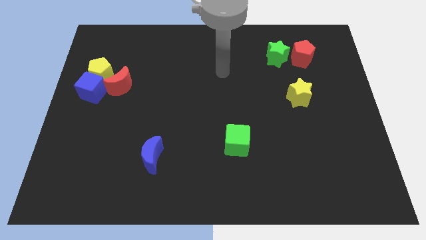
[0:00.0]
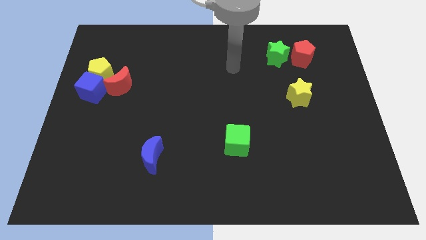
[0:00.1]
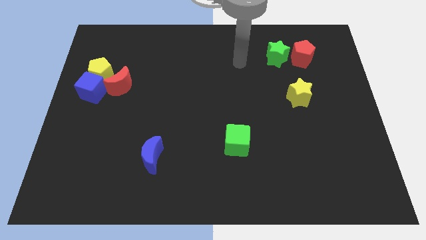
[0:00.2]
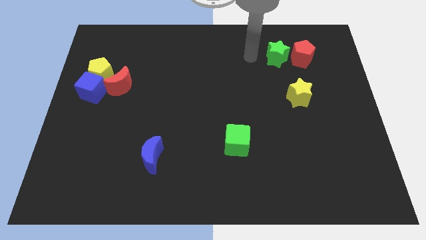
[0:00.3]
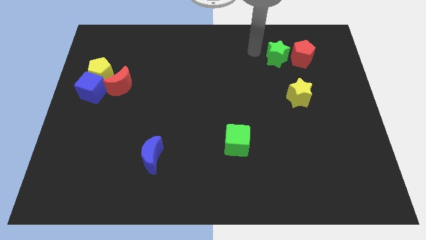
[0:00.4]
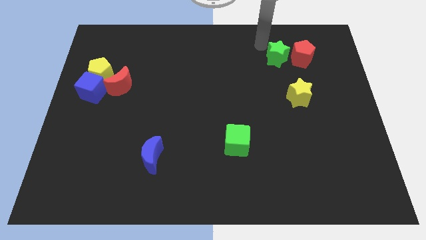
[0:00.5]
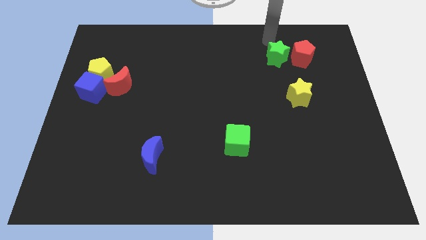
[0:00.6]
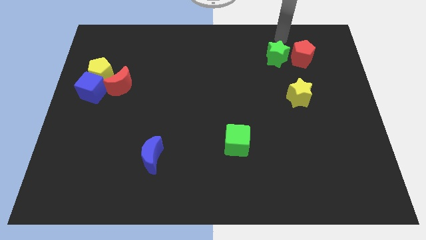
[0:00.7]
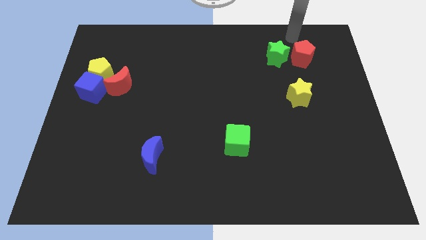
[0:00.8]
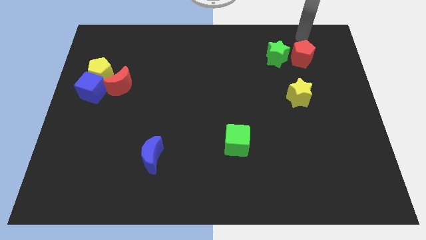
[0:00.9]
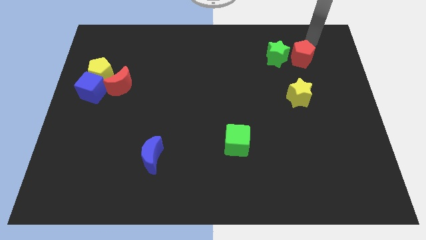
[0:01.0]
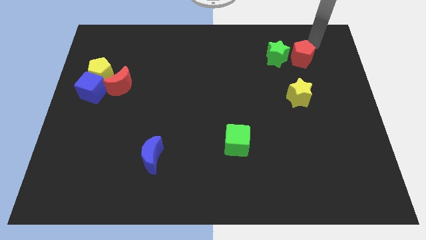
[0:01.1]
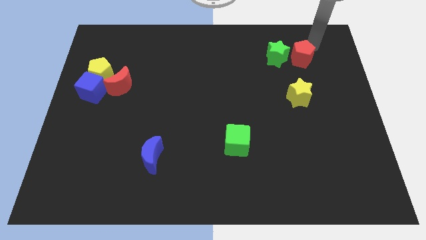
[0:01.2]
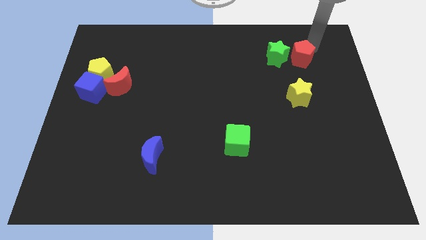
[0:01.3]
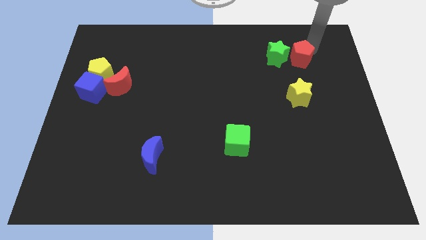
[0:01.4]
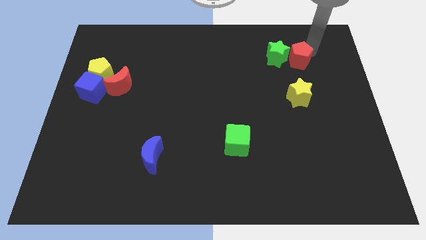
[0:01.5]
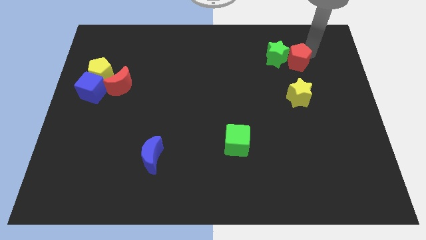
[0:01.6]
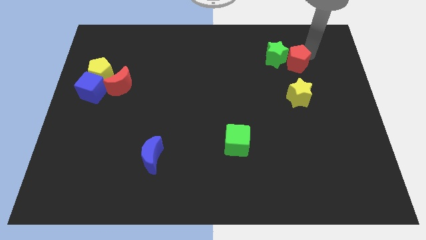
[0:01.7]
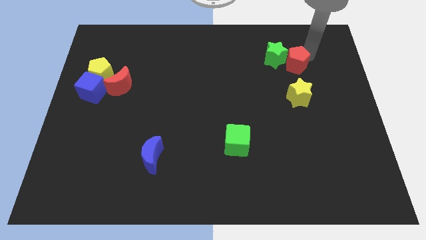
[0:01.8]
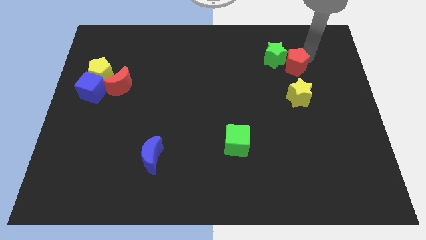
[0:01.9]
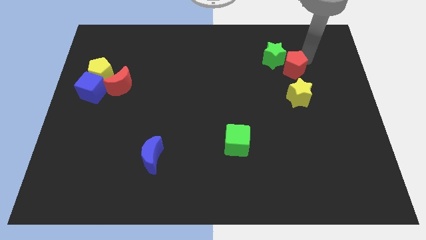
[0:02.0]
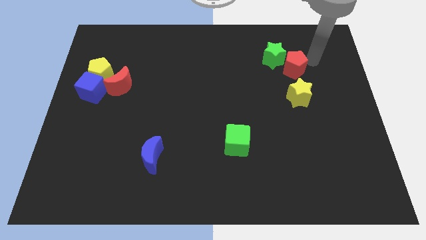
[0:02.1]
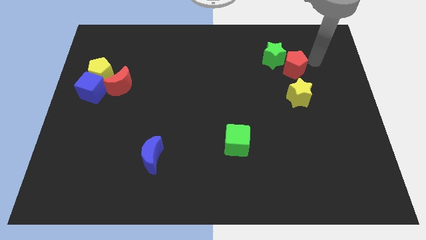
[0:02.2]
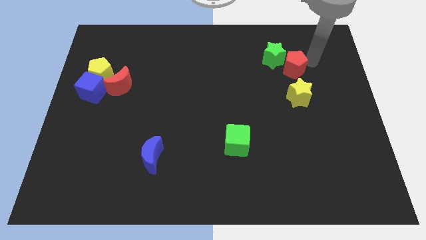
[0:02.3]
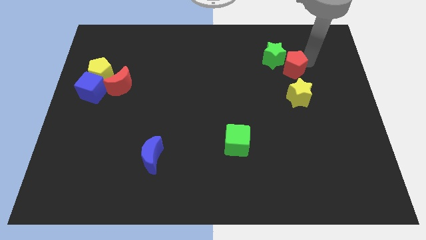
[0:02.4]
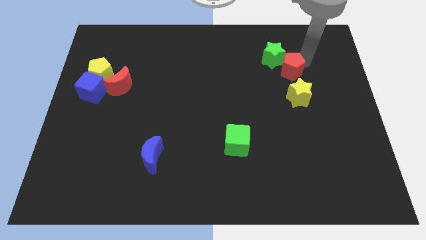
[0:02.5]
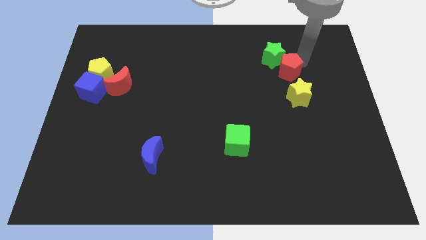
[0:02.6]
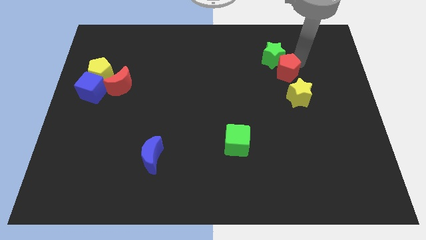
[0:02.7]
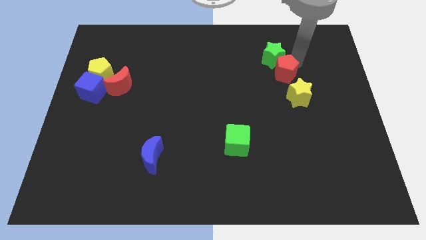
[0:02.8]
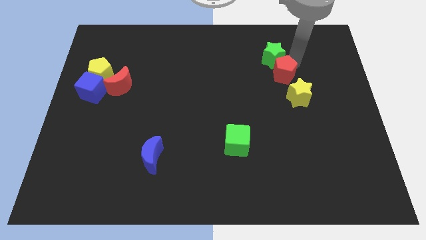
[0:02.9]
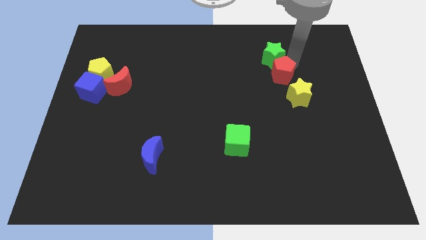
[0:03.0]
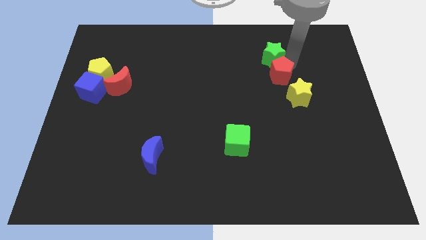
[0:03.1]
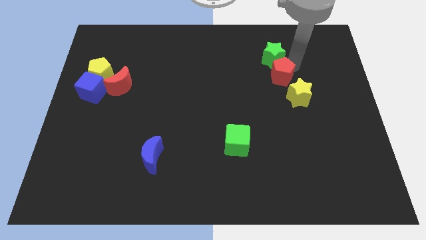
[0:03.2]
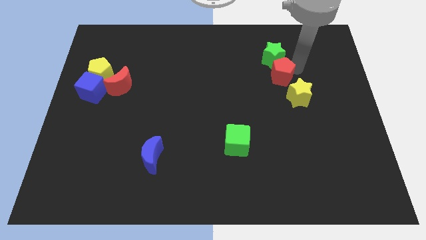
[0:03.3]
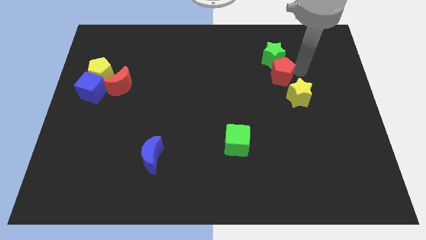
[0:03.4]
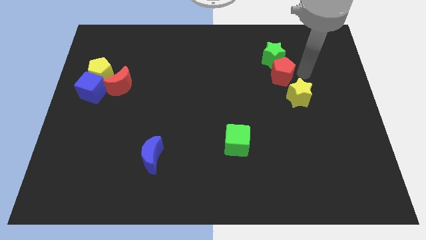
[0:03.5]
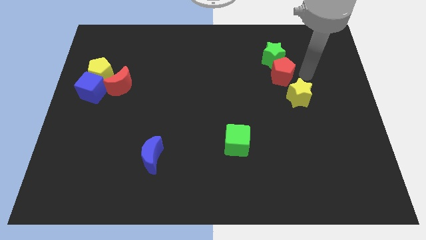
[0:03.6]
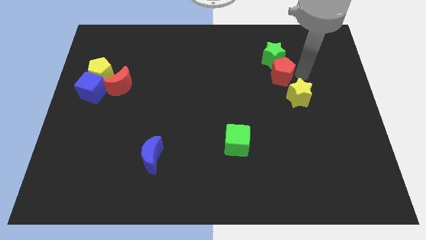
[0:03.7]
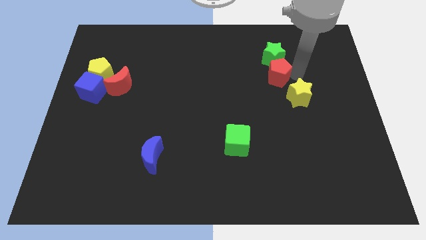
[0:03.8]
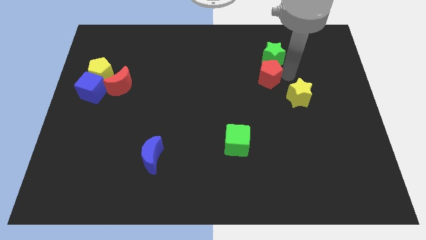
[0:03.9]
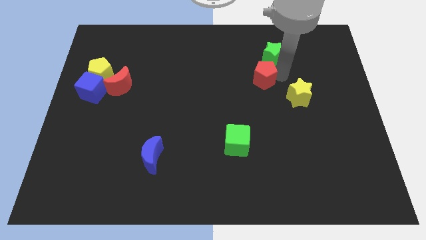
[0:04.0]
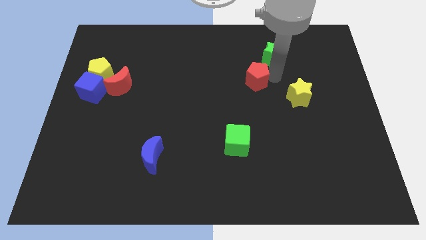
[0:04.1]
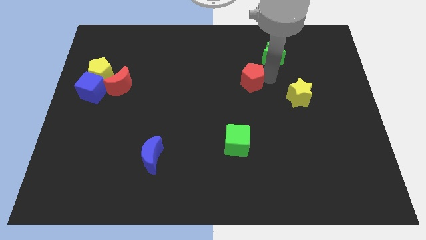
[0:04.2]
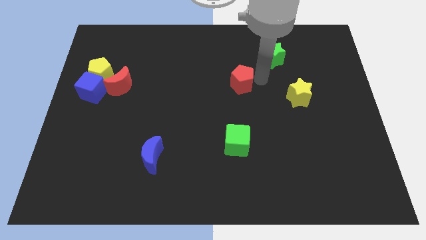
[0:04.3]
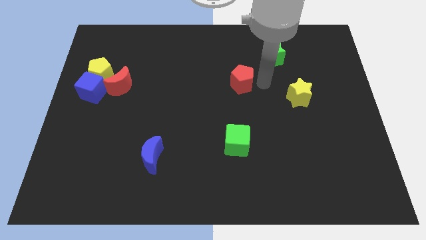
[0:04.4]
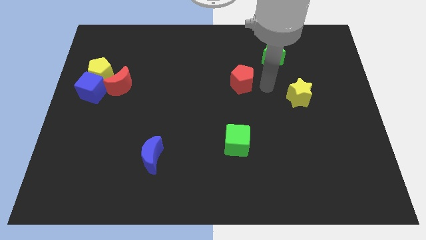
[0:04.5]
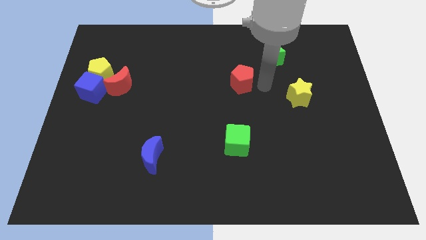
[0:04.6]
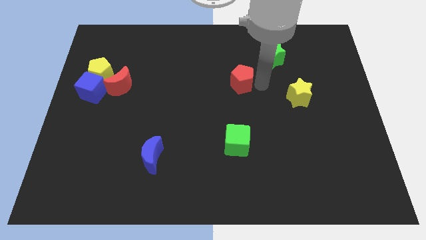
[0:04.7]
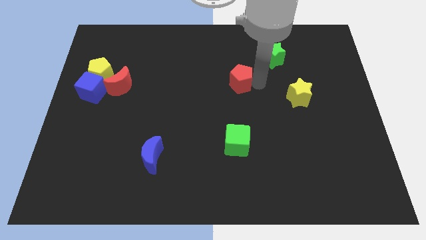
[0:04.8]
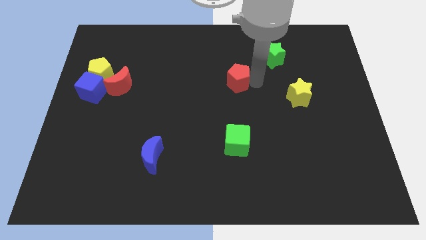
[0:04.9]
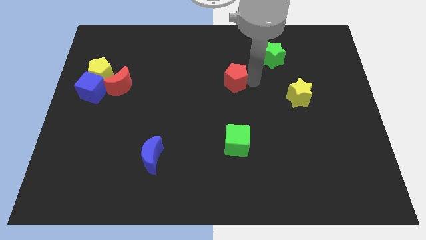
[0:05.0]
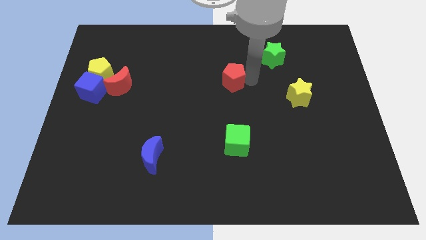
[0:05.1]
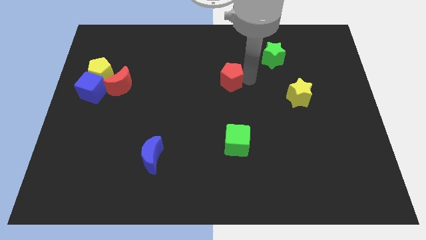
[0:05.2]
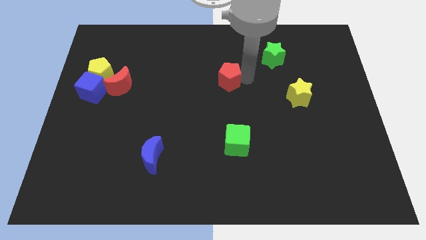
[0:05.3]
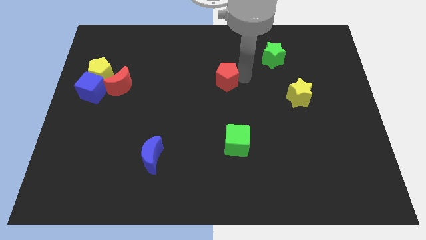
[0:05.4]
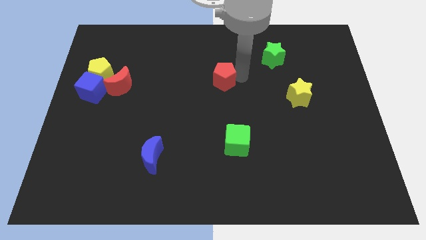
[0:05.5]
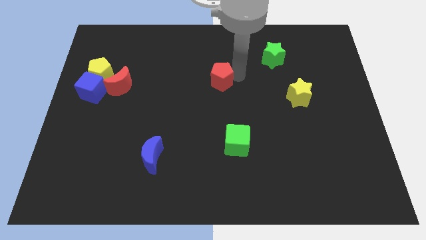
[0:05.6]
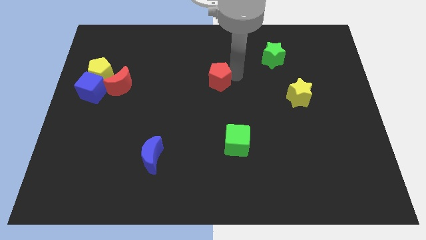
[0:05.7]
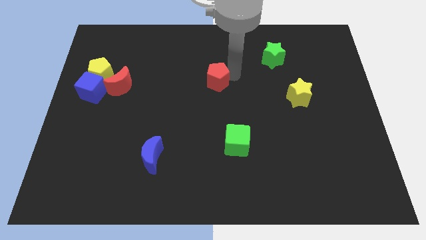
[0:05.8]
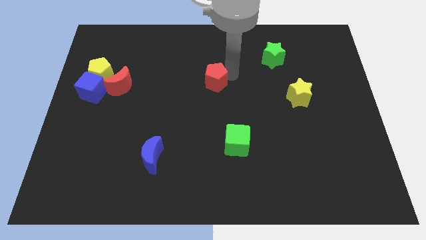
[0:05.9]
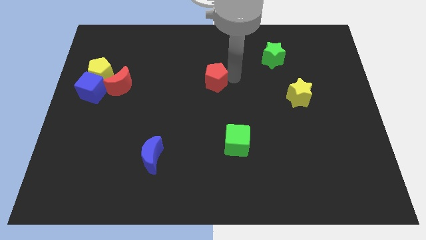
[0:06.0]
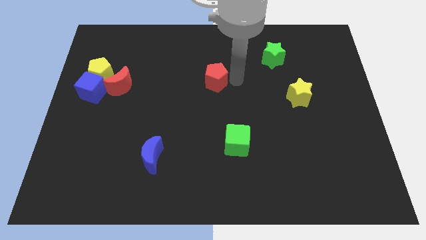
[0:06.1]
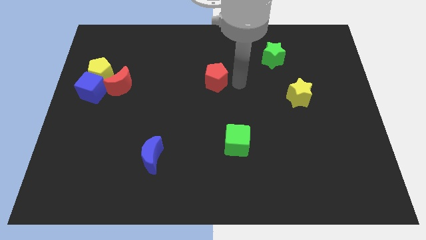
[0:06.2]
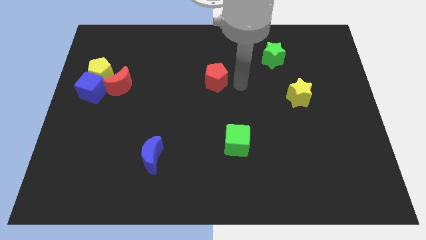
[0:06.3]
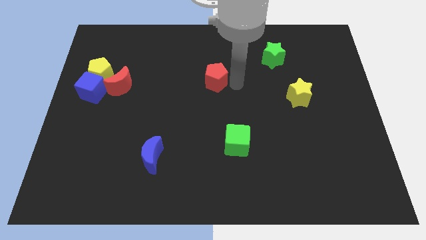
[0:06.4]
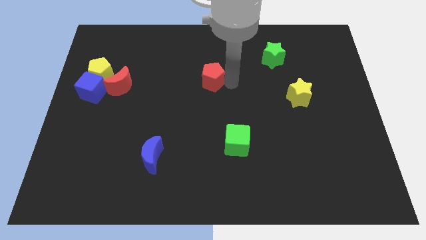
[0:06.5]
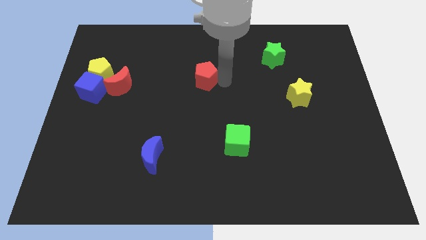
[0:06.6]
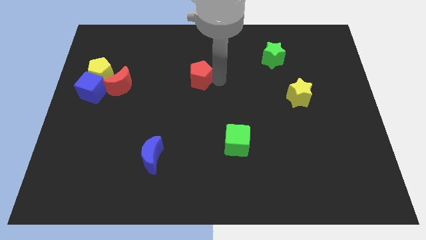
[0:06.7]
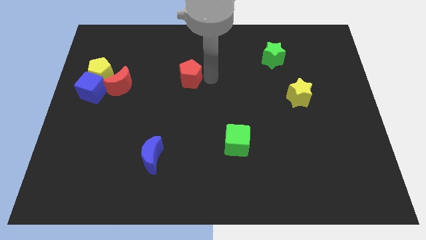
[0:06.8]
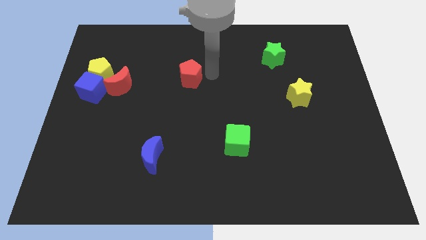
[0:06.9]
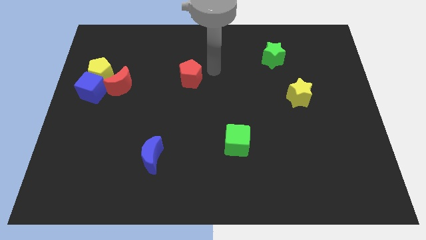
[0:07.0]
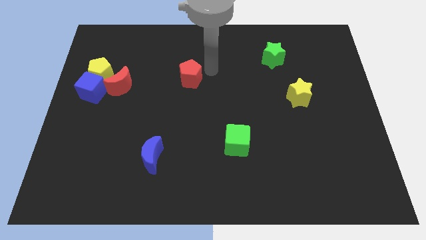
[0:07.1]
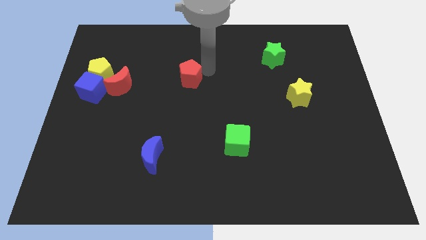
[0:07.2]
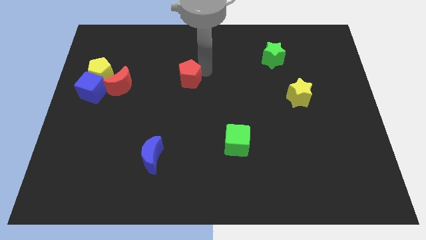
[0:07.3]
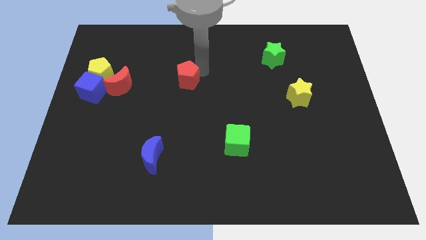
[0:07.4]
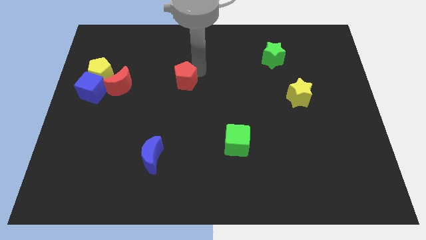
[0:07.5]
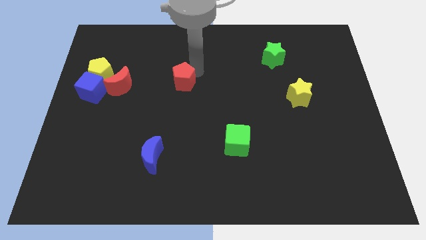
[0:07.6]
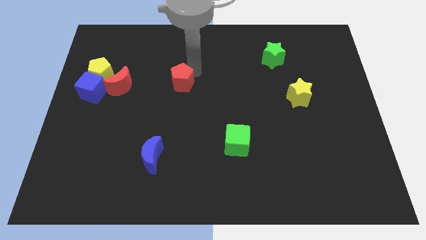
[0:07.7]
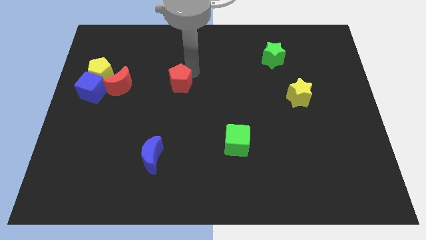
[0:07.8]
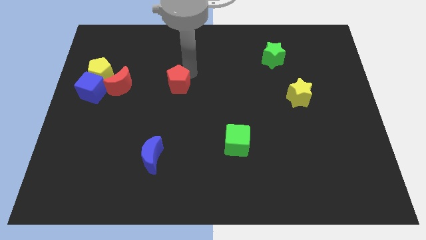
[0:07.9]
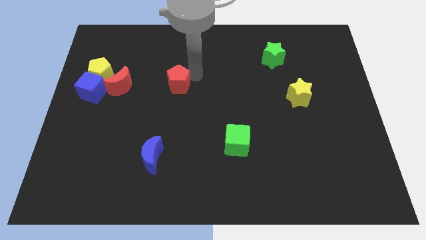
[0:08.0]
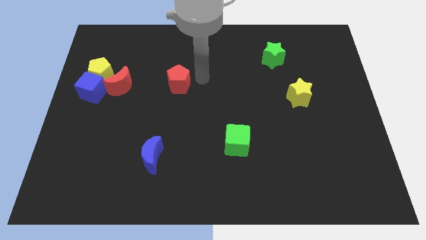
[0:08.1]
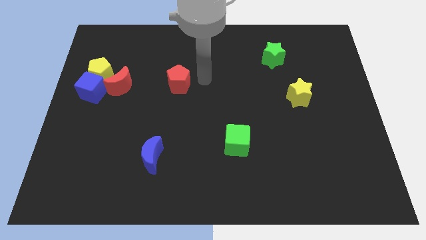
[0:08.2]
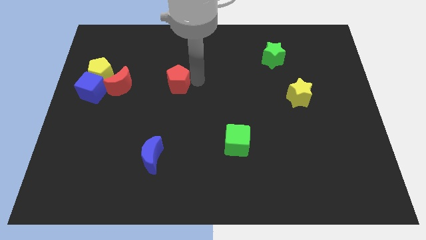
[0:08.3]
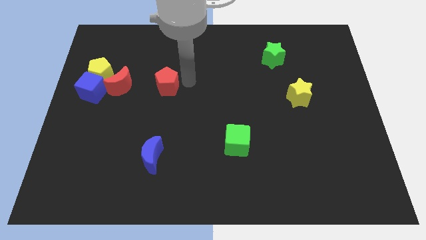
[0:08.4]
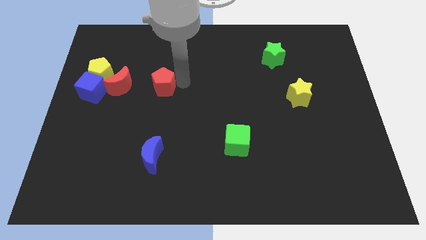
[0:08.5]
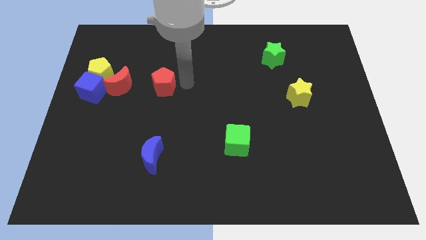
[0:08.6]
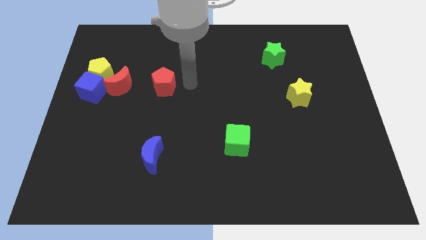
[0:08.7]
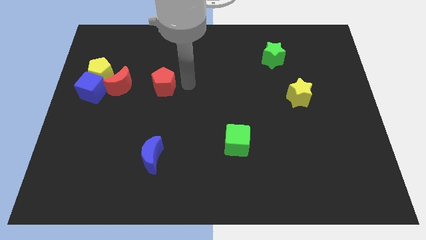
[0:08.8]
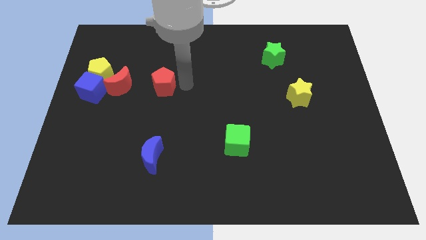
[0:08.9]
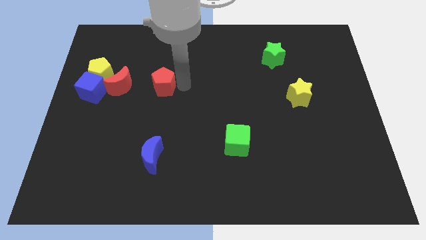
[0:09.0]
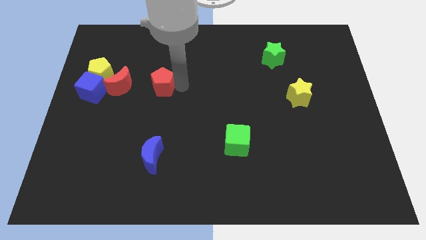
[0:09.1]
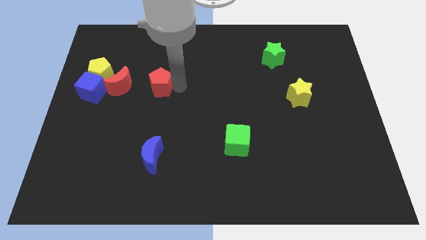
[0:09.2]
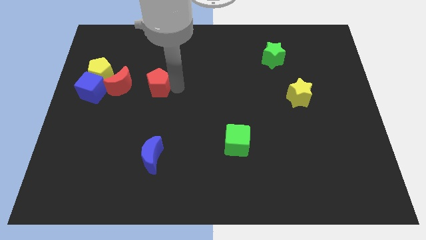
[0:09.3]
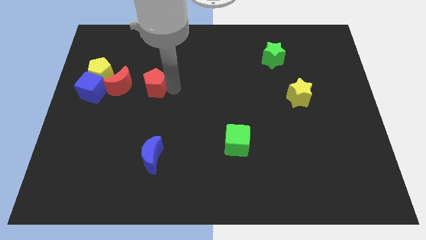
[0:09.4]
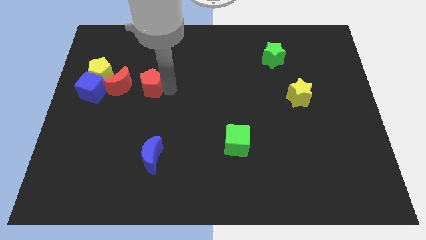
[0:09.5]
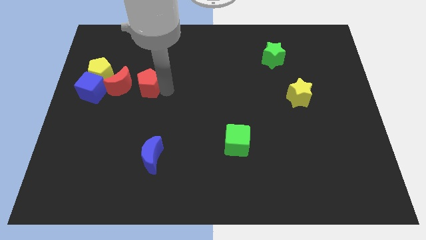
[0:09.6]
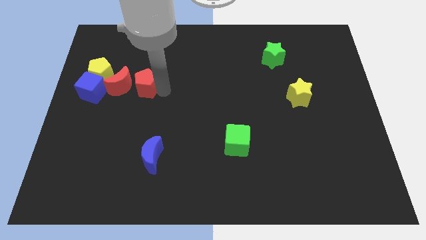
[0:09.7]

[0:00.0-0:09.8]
push the red pentagon towards the red moon
